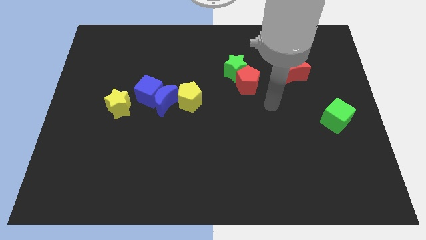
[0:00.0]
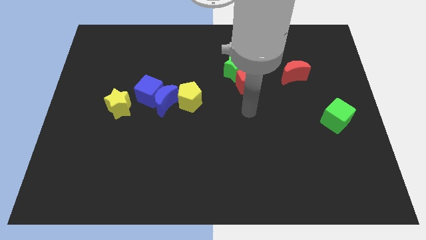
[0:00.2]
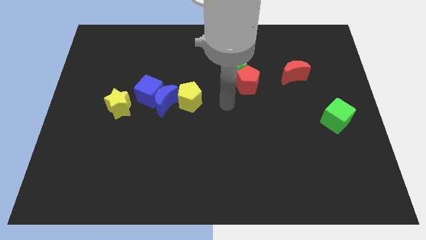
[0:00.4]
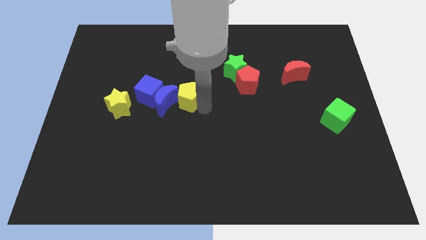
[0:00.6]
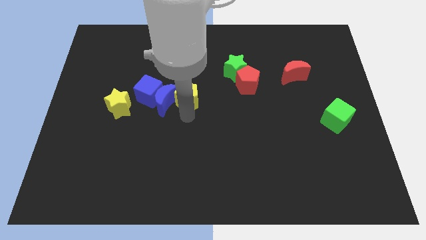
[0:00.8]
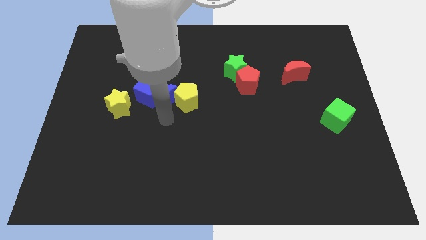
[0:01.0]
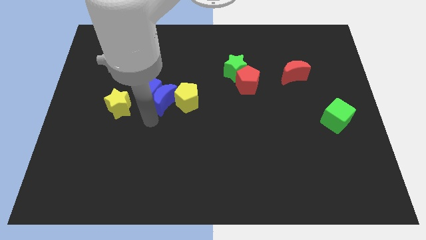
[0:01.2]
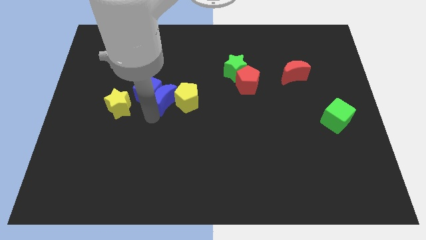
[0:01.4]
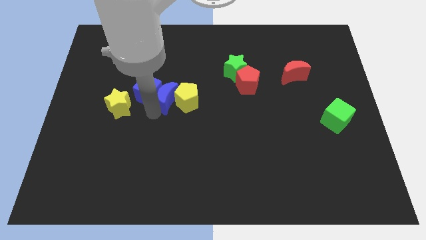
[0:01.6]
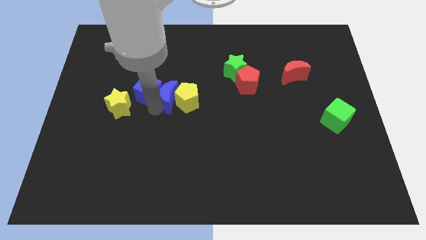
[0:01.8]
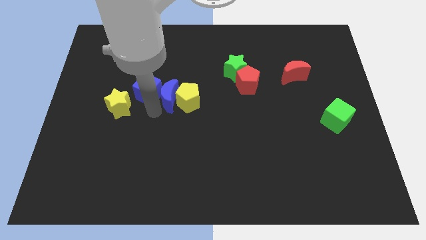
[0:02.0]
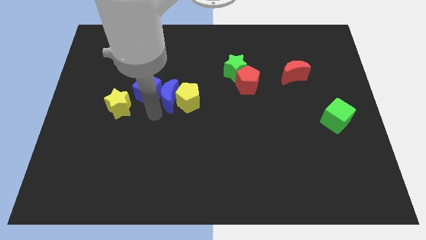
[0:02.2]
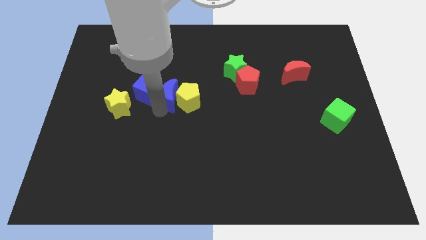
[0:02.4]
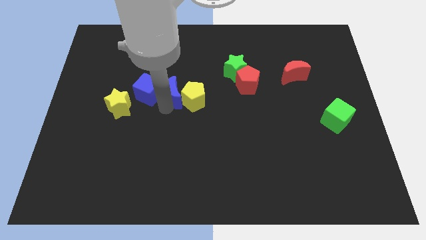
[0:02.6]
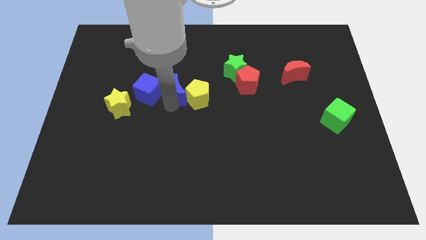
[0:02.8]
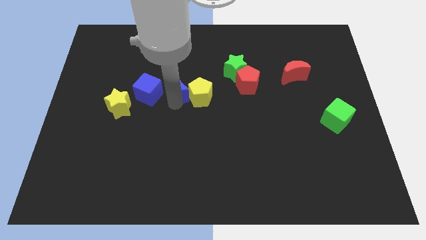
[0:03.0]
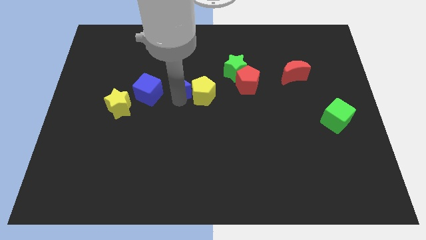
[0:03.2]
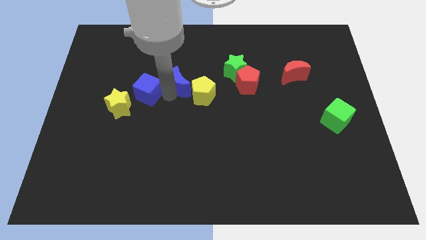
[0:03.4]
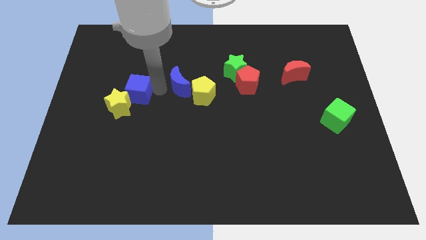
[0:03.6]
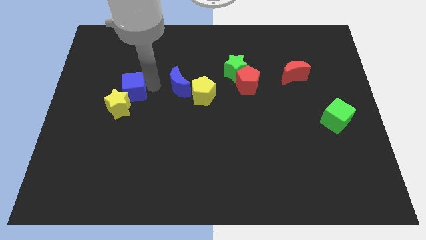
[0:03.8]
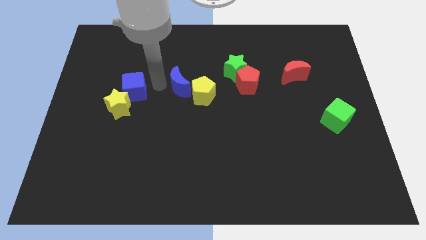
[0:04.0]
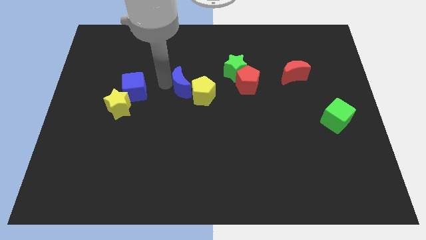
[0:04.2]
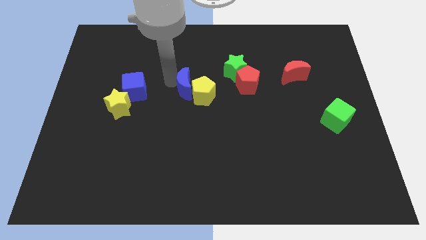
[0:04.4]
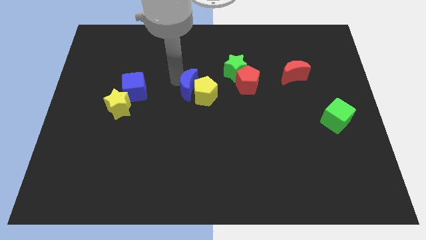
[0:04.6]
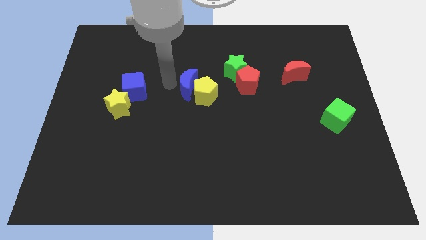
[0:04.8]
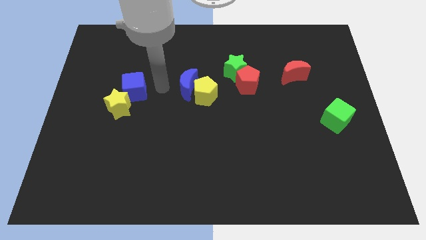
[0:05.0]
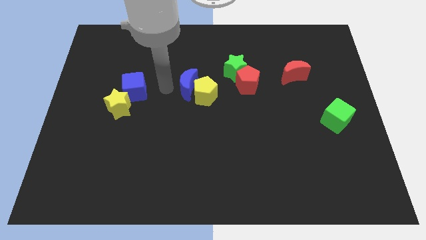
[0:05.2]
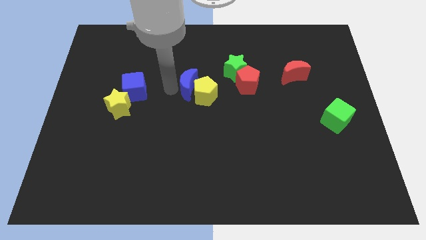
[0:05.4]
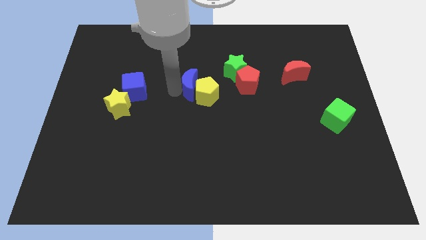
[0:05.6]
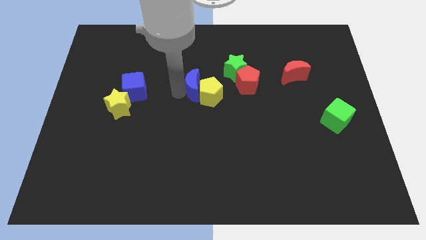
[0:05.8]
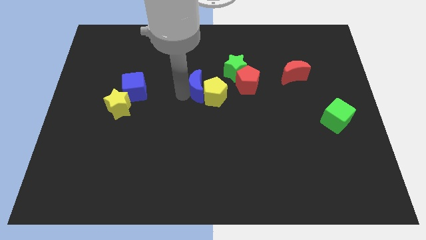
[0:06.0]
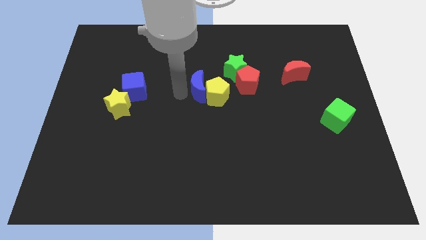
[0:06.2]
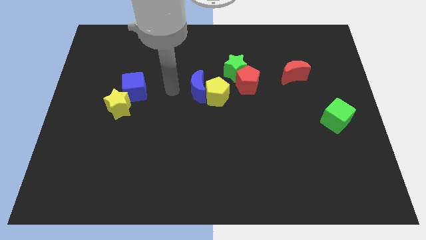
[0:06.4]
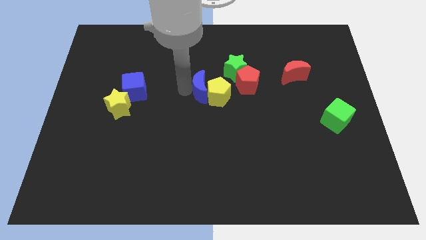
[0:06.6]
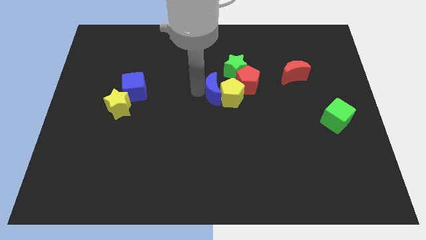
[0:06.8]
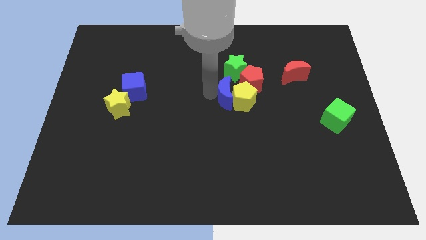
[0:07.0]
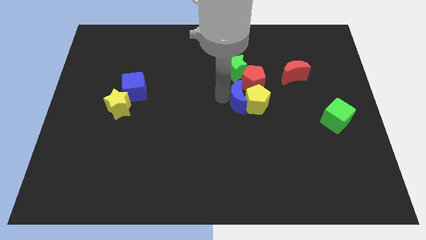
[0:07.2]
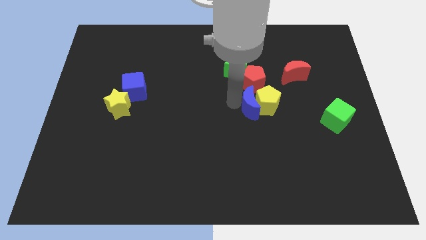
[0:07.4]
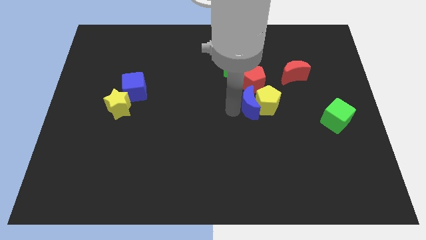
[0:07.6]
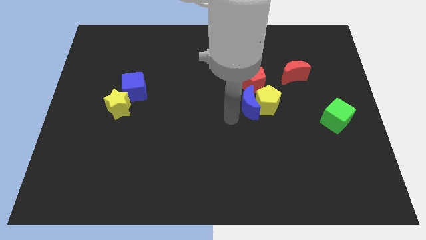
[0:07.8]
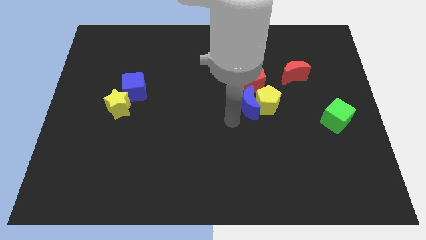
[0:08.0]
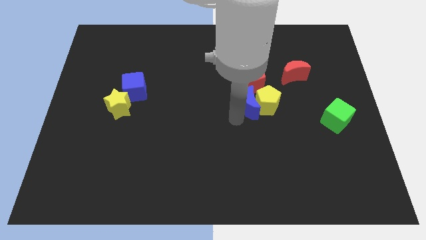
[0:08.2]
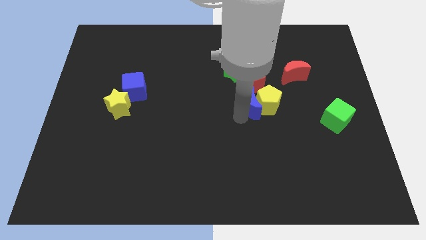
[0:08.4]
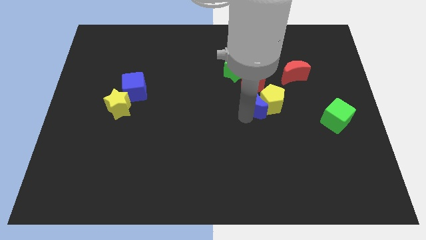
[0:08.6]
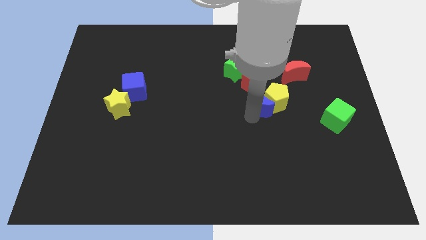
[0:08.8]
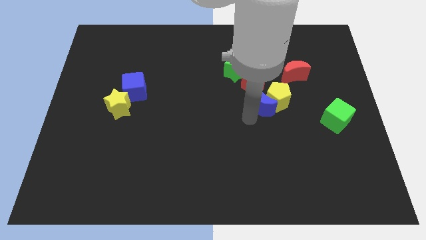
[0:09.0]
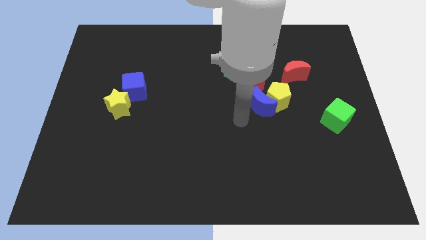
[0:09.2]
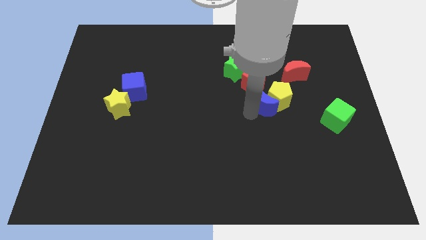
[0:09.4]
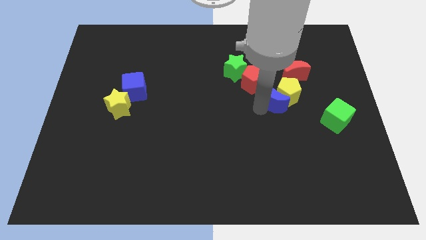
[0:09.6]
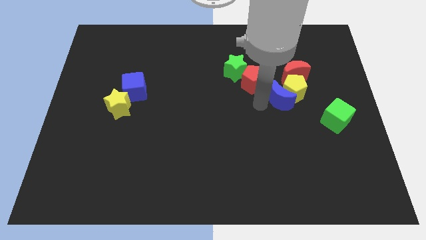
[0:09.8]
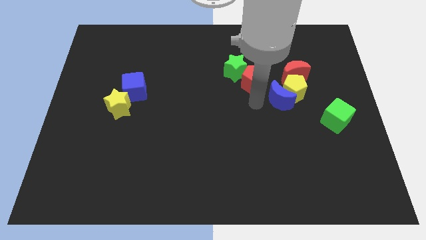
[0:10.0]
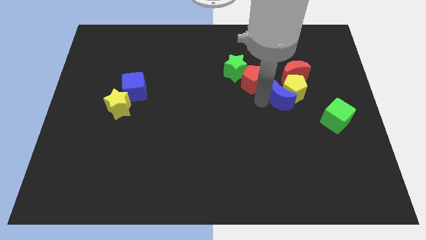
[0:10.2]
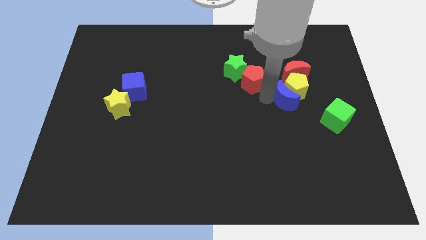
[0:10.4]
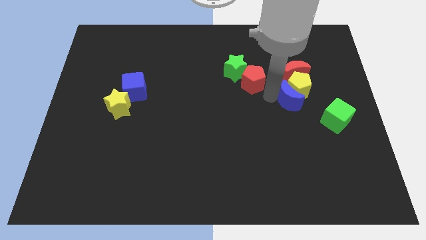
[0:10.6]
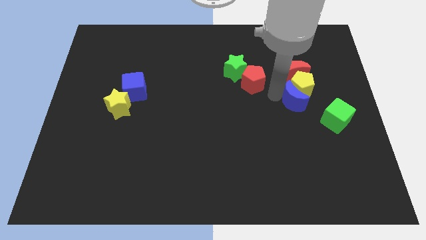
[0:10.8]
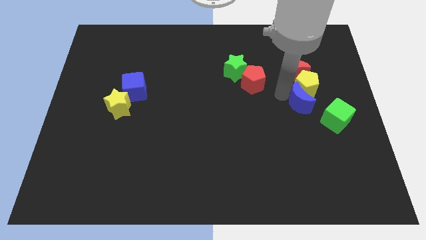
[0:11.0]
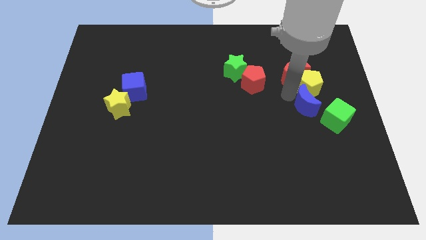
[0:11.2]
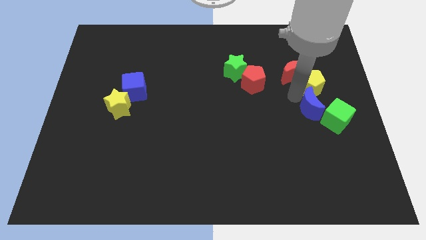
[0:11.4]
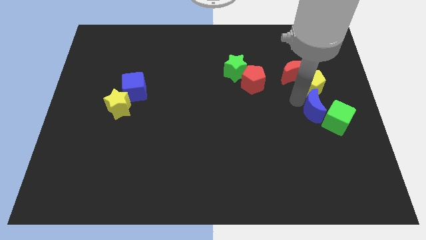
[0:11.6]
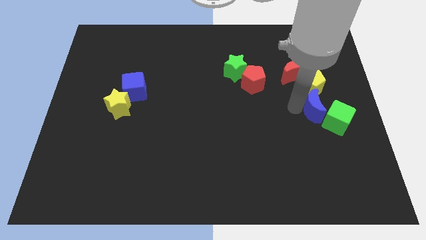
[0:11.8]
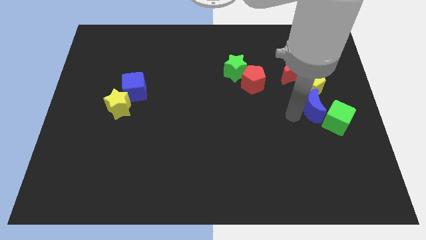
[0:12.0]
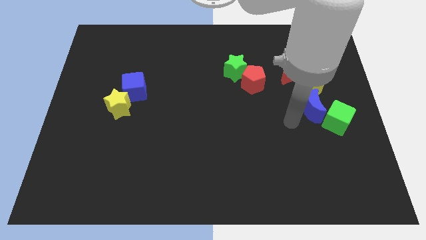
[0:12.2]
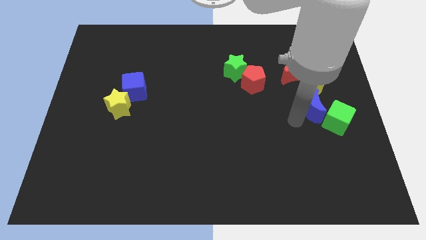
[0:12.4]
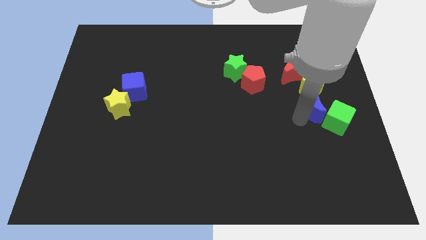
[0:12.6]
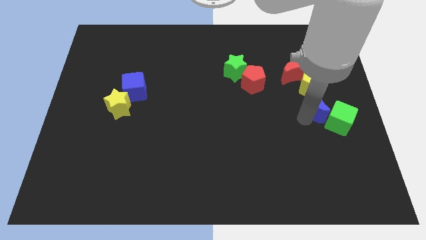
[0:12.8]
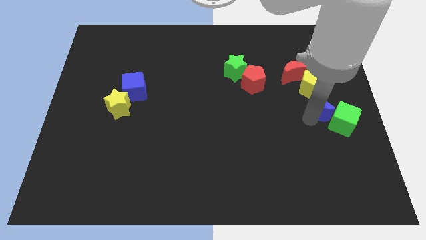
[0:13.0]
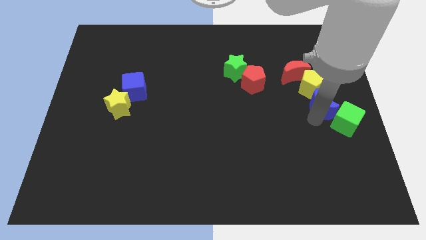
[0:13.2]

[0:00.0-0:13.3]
slide the blue moon to the right side of the board
